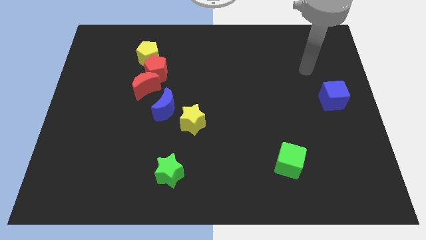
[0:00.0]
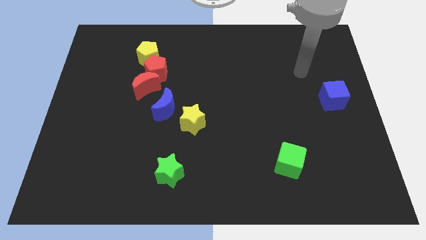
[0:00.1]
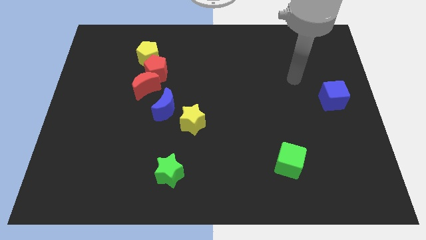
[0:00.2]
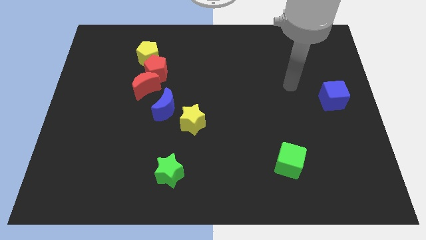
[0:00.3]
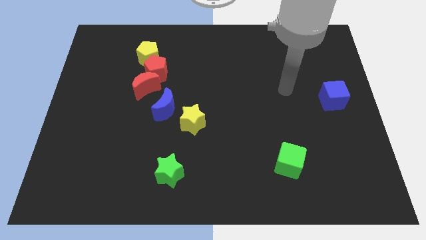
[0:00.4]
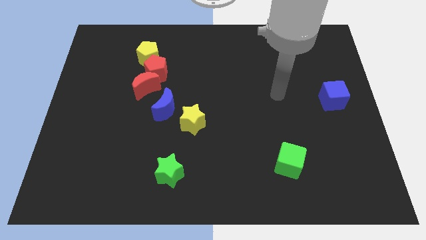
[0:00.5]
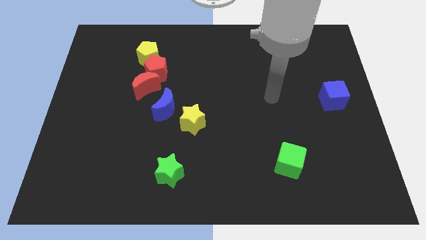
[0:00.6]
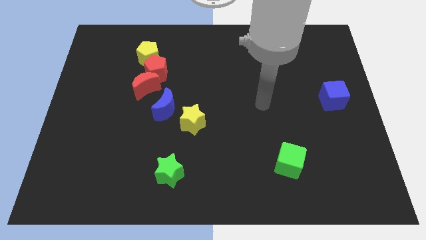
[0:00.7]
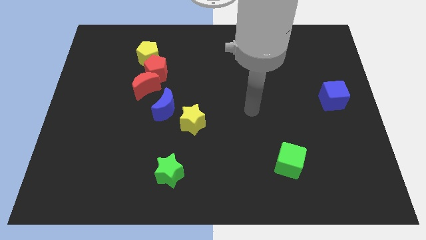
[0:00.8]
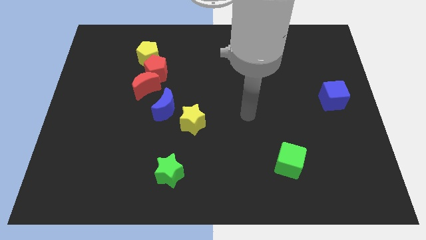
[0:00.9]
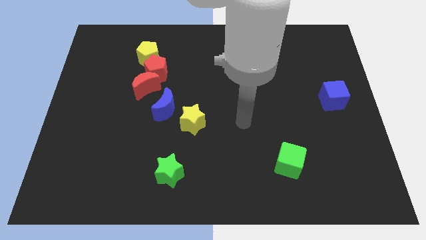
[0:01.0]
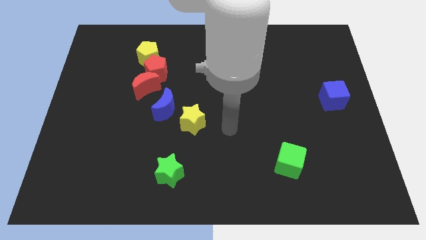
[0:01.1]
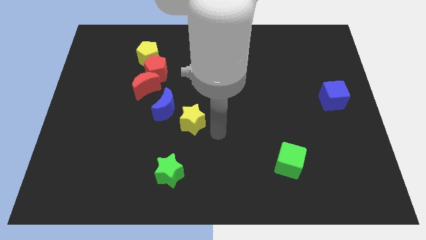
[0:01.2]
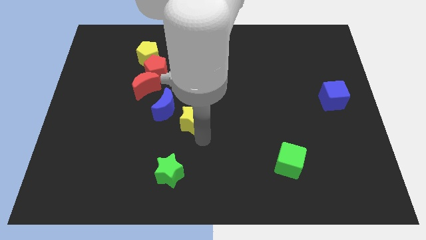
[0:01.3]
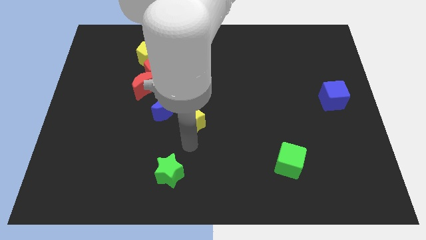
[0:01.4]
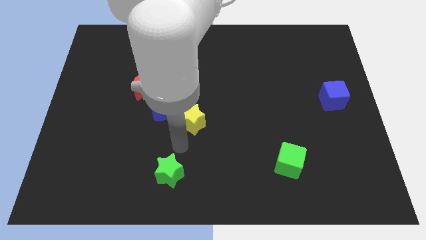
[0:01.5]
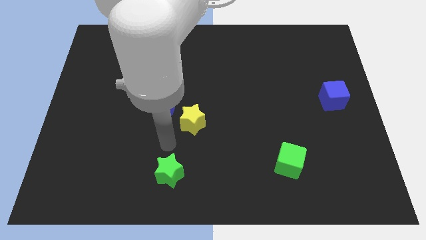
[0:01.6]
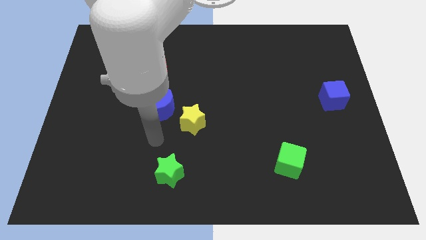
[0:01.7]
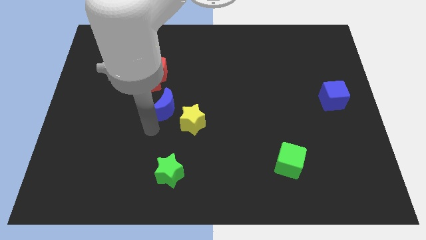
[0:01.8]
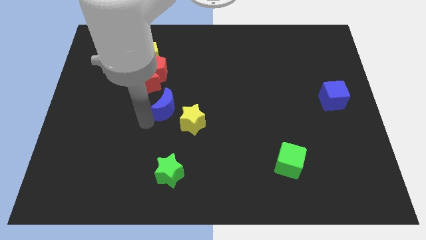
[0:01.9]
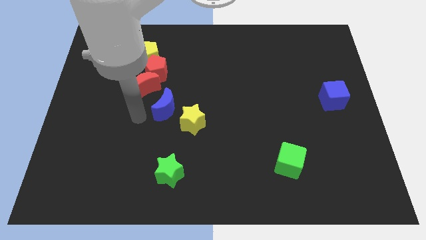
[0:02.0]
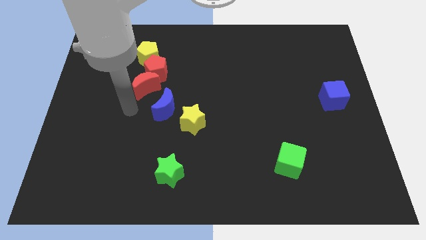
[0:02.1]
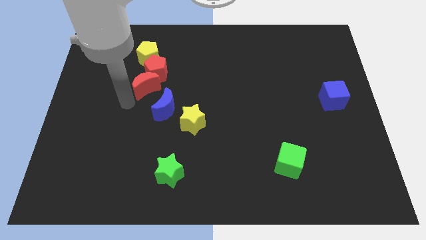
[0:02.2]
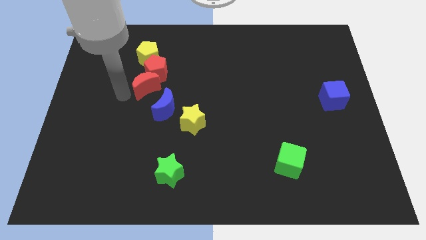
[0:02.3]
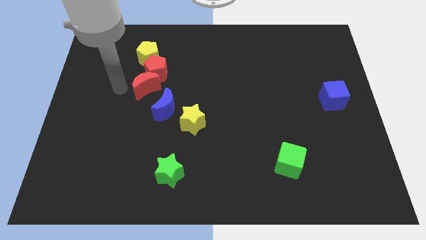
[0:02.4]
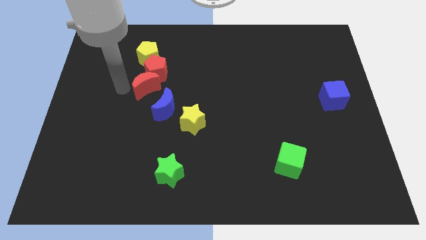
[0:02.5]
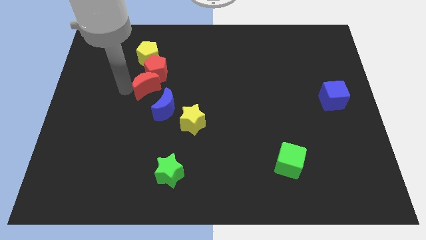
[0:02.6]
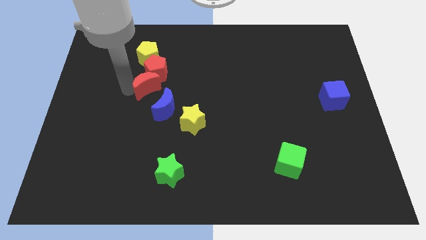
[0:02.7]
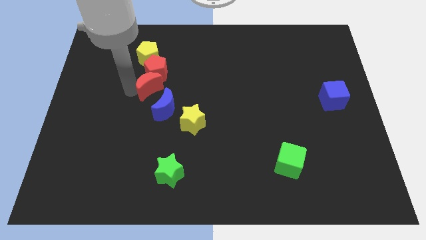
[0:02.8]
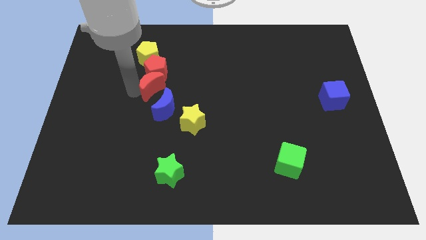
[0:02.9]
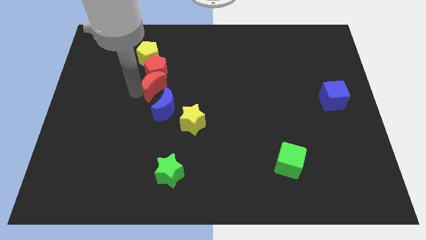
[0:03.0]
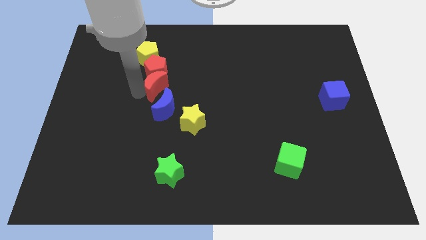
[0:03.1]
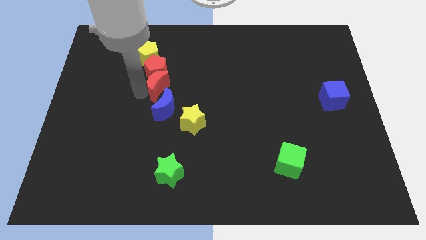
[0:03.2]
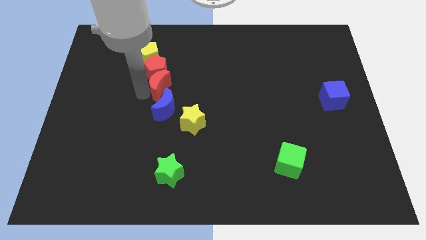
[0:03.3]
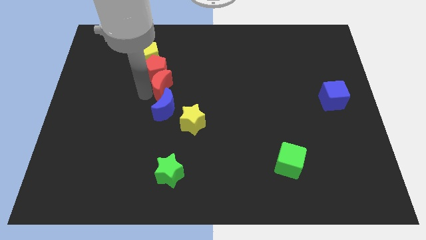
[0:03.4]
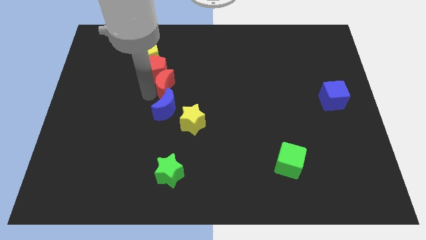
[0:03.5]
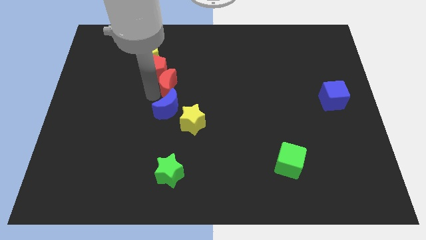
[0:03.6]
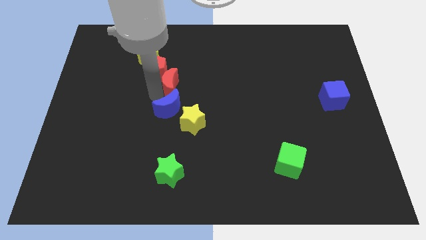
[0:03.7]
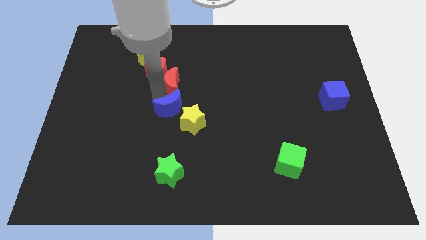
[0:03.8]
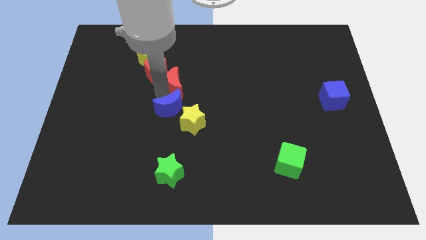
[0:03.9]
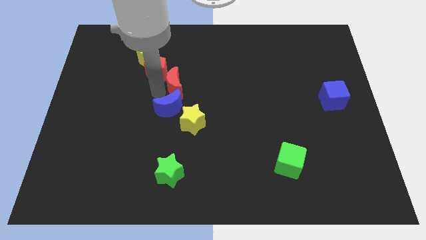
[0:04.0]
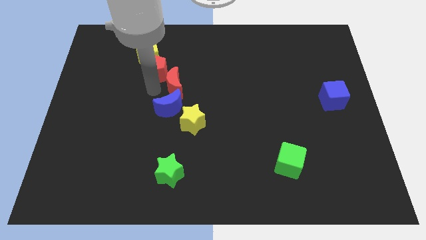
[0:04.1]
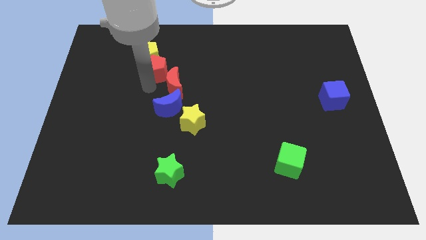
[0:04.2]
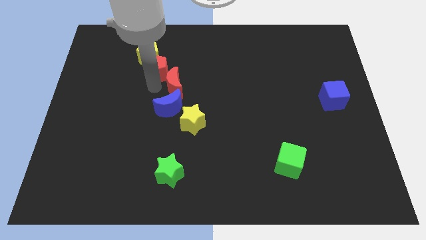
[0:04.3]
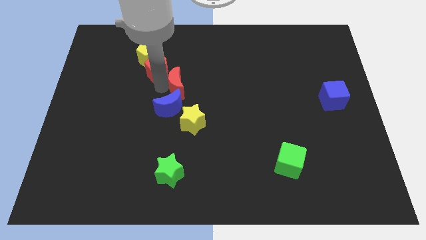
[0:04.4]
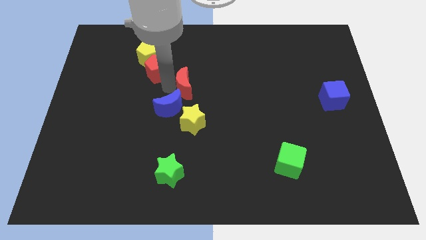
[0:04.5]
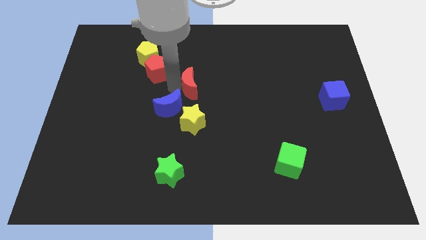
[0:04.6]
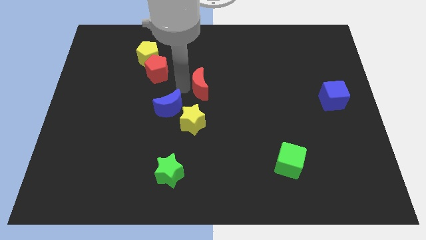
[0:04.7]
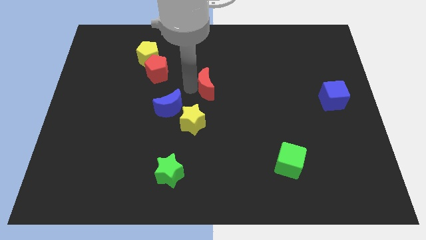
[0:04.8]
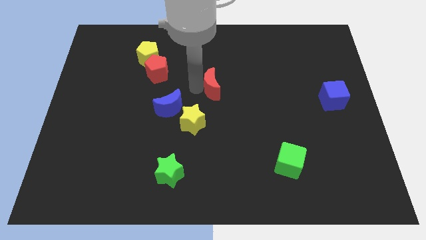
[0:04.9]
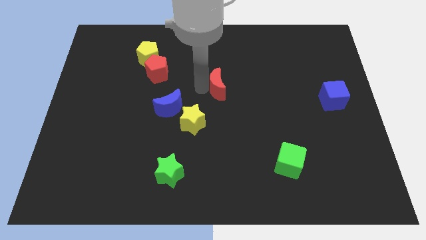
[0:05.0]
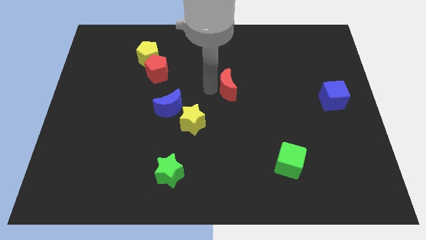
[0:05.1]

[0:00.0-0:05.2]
push the red moon to the right

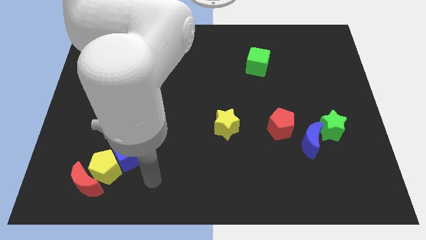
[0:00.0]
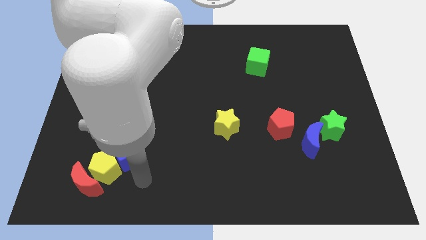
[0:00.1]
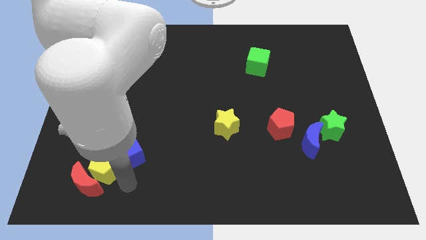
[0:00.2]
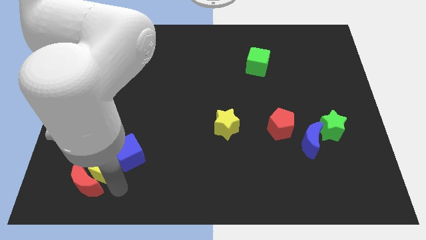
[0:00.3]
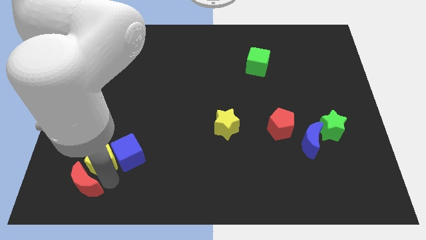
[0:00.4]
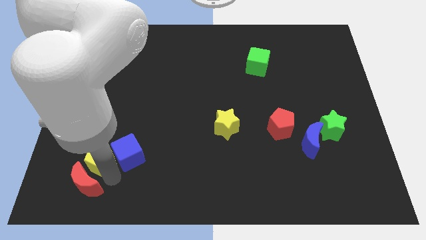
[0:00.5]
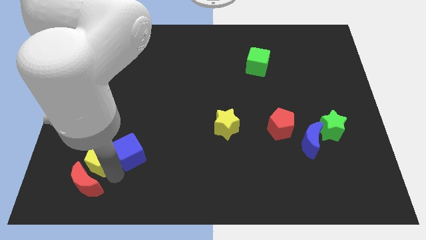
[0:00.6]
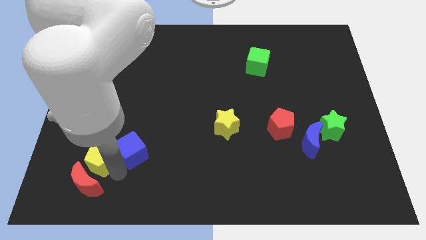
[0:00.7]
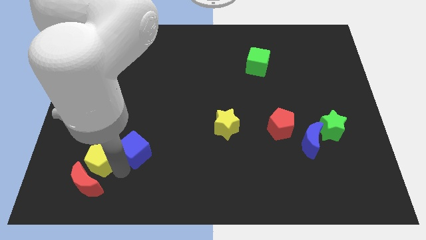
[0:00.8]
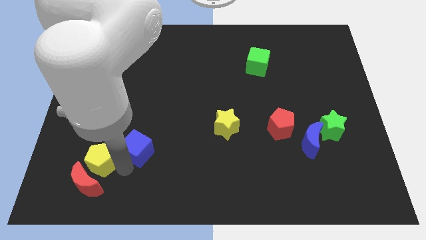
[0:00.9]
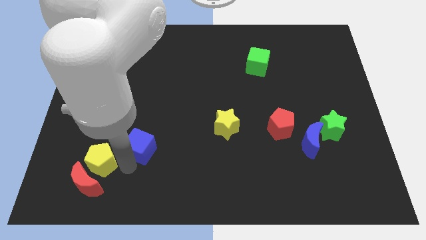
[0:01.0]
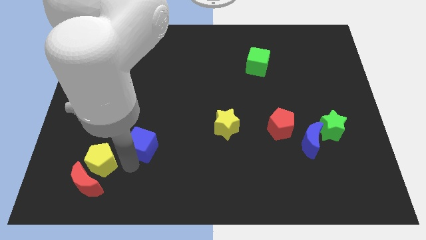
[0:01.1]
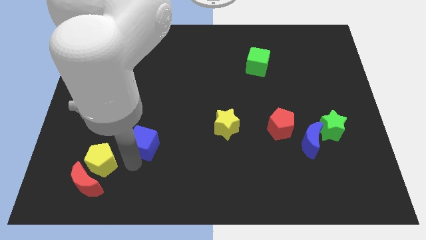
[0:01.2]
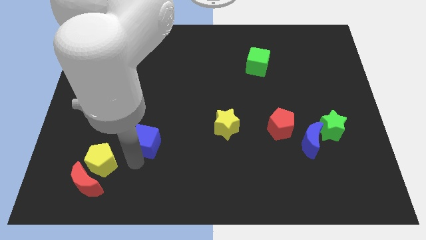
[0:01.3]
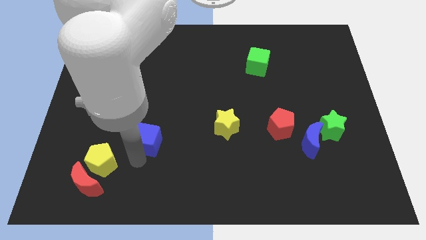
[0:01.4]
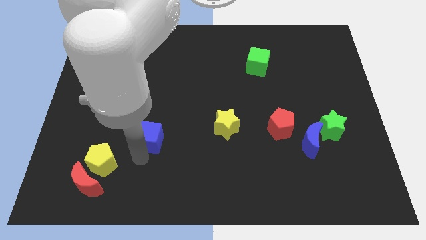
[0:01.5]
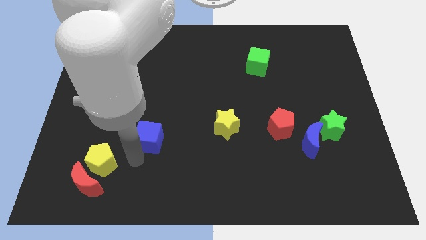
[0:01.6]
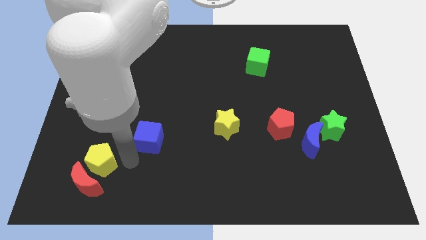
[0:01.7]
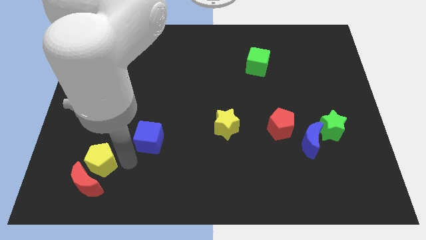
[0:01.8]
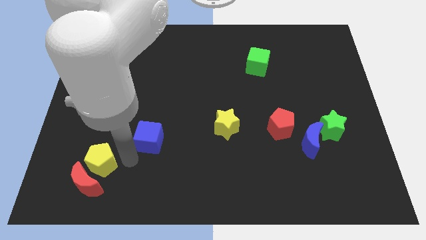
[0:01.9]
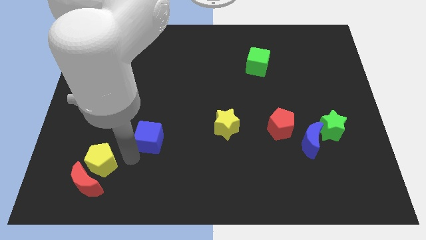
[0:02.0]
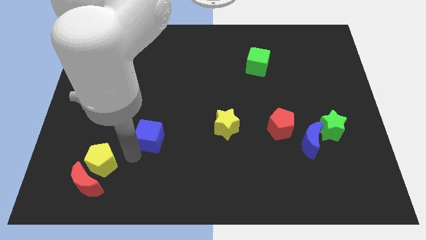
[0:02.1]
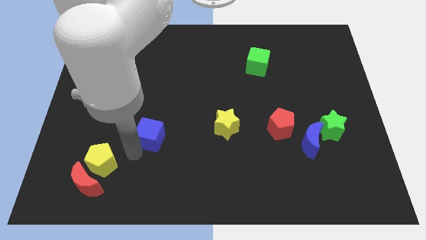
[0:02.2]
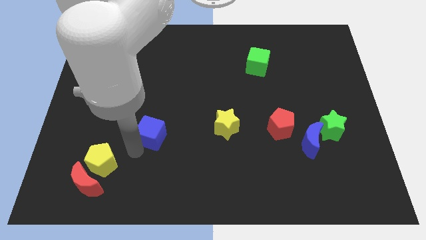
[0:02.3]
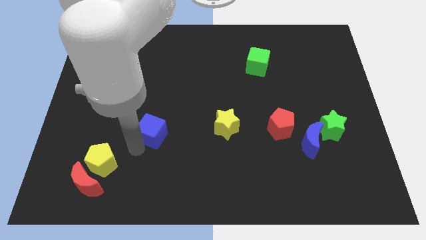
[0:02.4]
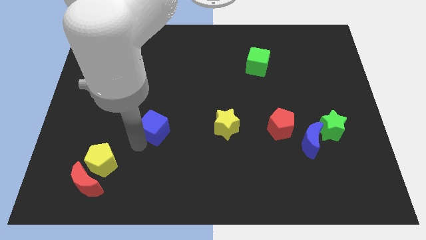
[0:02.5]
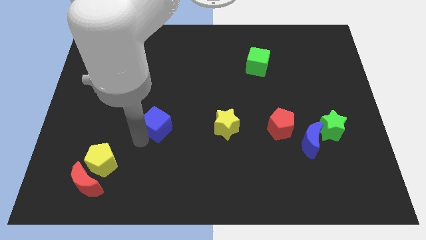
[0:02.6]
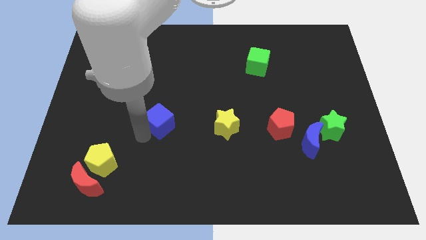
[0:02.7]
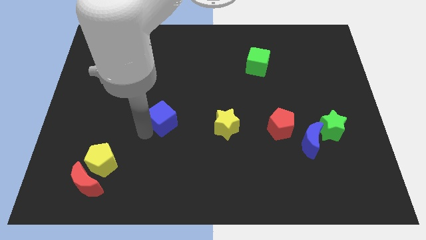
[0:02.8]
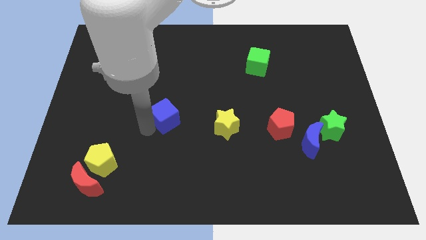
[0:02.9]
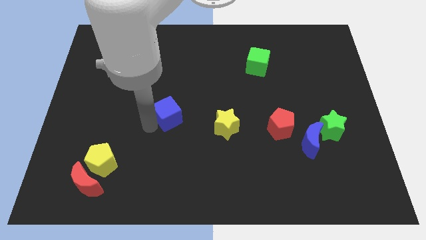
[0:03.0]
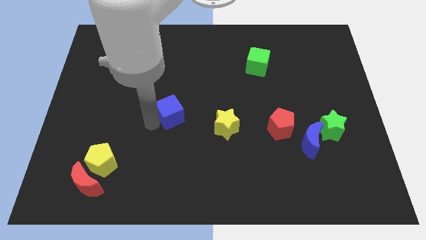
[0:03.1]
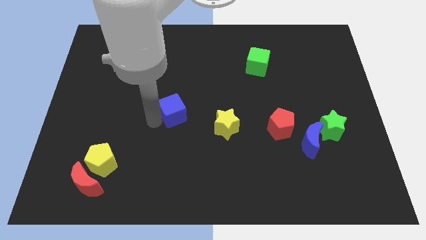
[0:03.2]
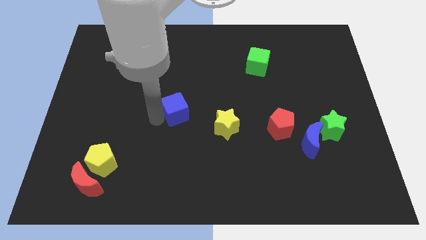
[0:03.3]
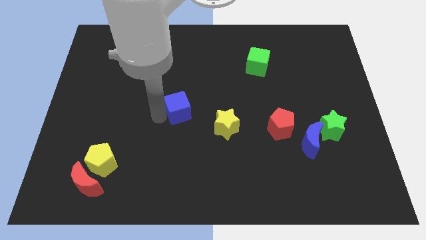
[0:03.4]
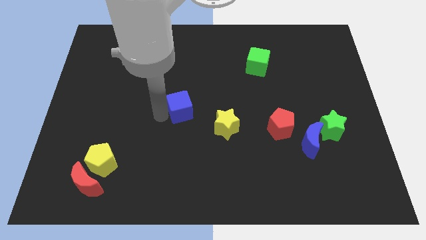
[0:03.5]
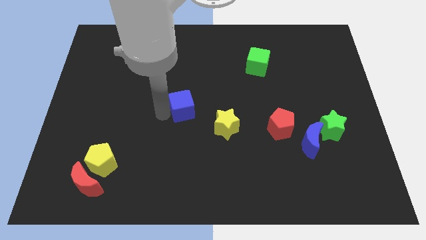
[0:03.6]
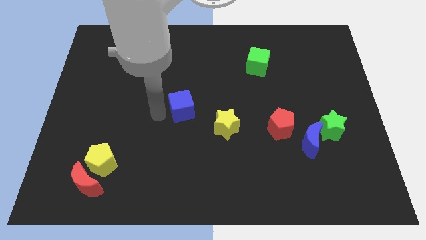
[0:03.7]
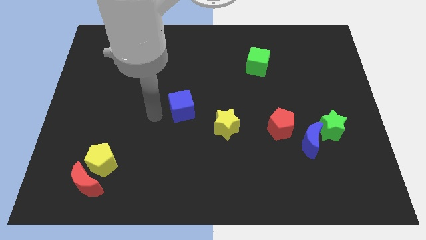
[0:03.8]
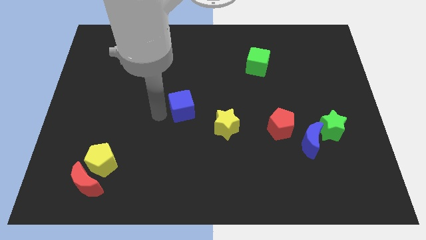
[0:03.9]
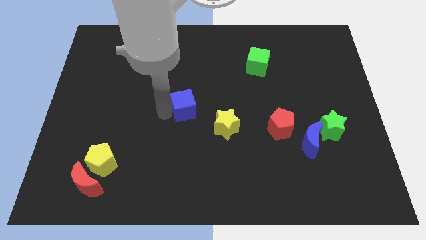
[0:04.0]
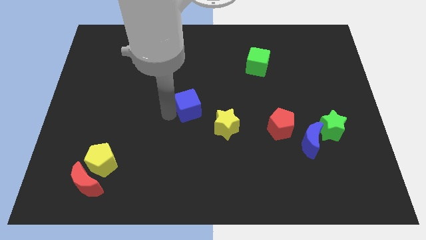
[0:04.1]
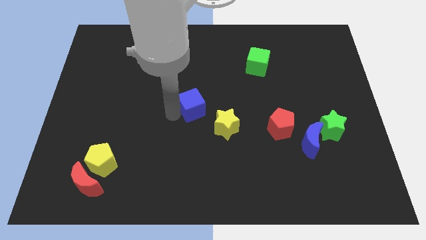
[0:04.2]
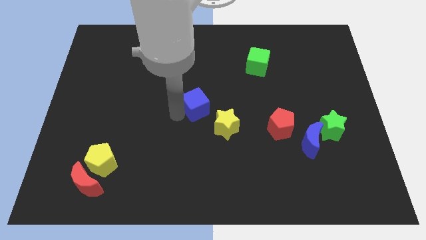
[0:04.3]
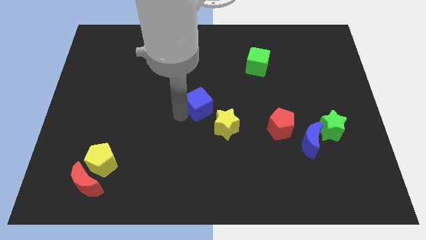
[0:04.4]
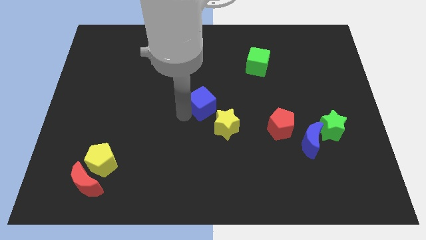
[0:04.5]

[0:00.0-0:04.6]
slide the blue cube up and to the right diagonally
